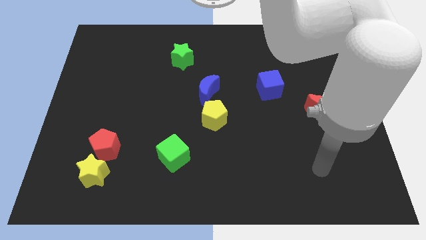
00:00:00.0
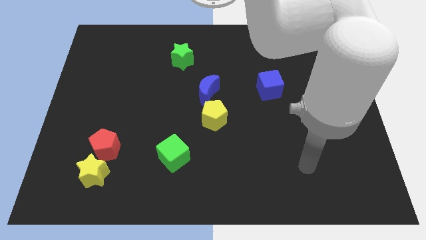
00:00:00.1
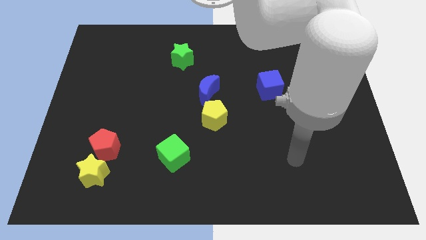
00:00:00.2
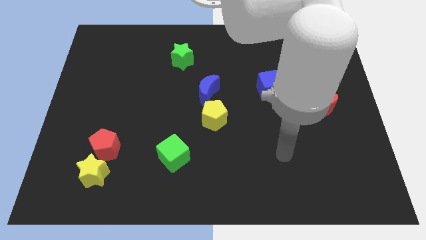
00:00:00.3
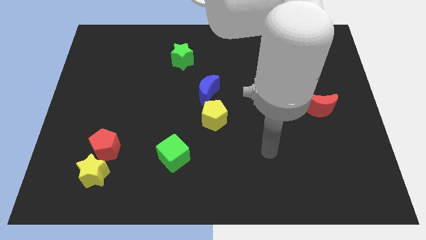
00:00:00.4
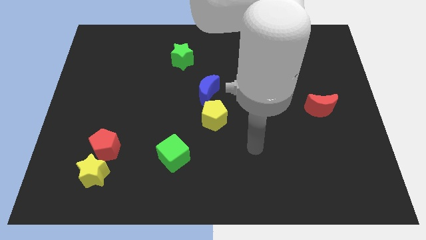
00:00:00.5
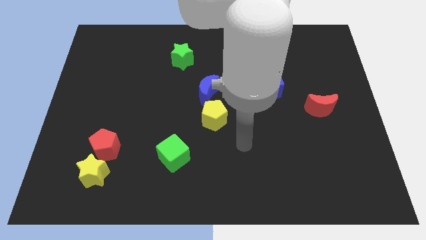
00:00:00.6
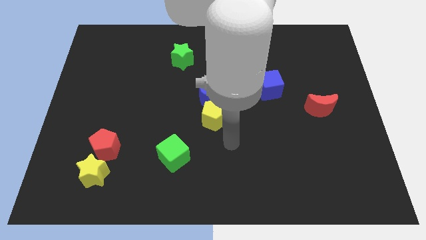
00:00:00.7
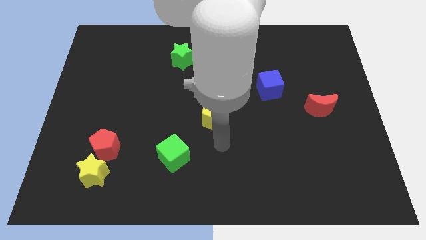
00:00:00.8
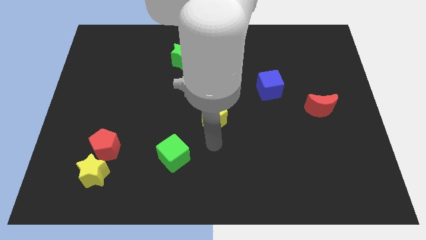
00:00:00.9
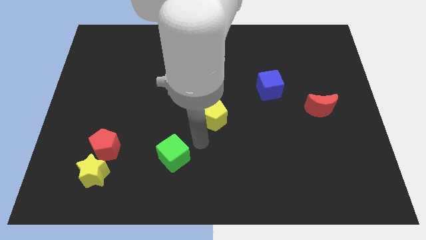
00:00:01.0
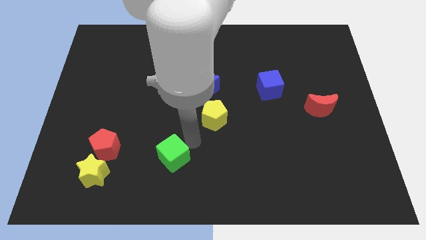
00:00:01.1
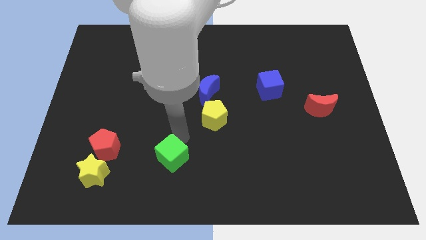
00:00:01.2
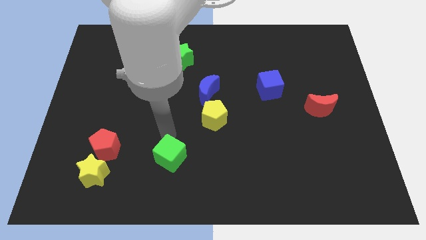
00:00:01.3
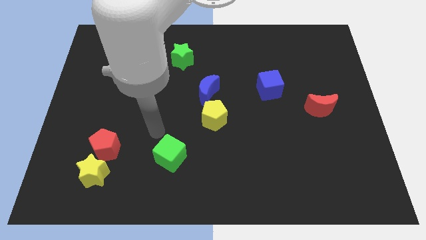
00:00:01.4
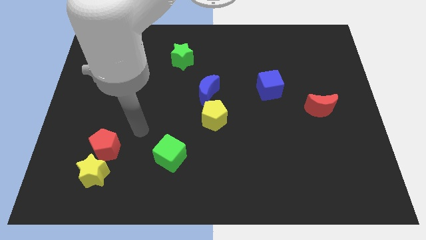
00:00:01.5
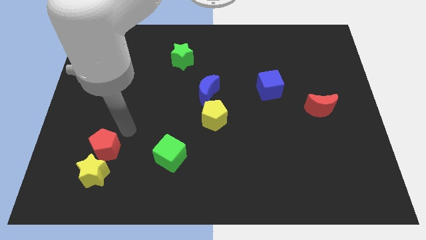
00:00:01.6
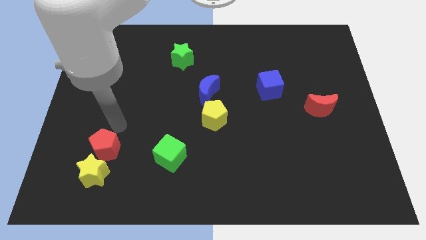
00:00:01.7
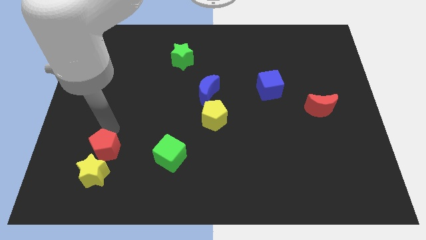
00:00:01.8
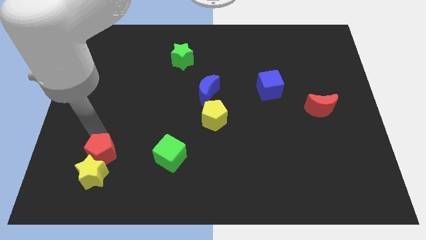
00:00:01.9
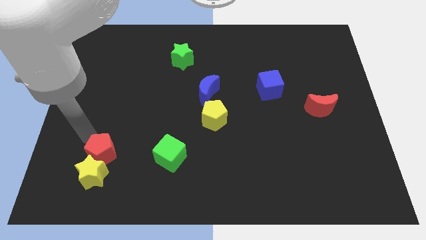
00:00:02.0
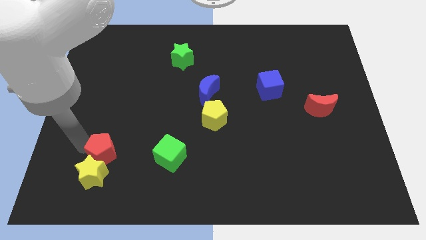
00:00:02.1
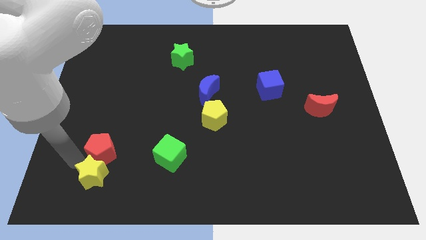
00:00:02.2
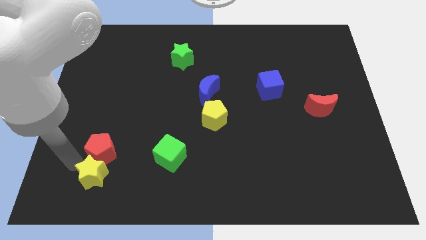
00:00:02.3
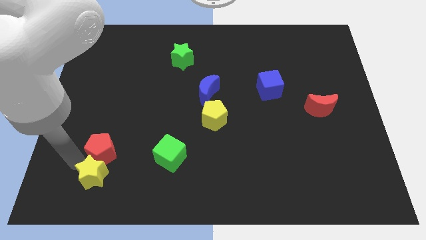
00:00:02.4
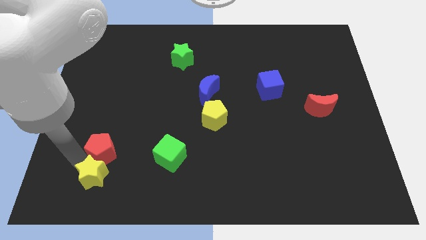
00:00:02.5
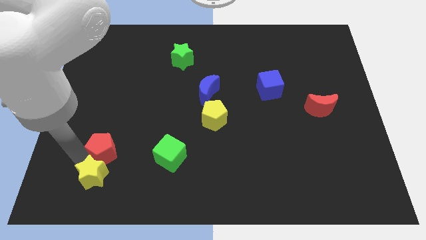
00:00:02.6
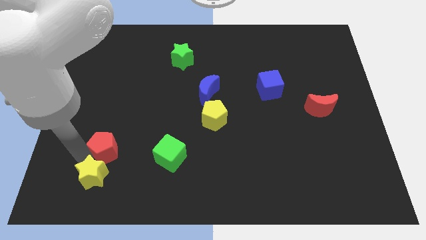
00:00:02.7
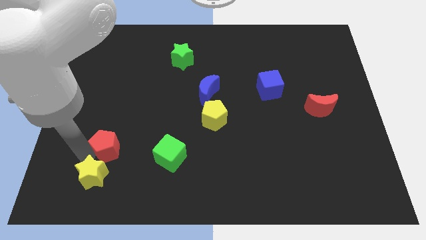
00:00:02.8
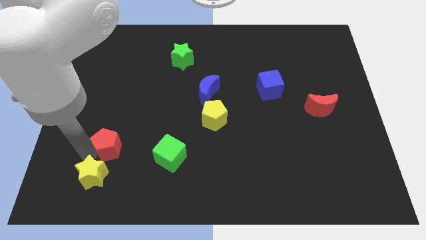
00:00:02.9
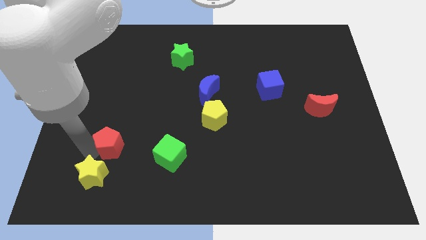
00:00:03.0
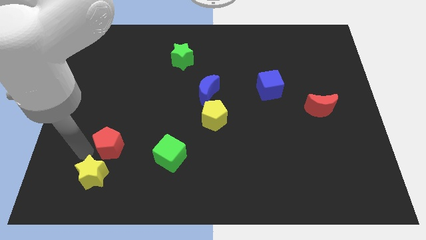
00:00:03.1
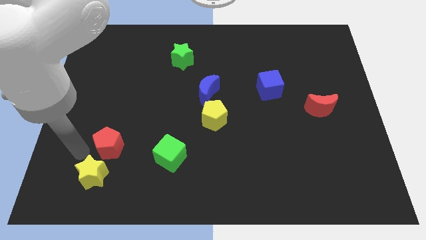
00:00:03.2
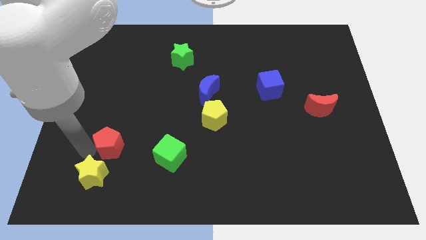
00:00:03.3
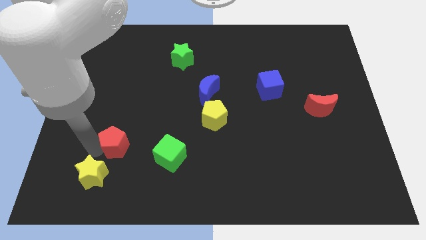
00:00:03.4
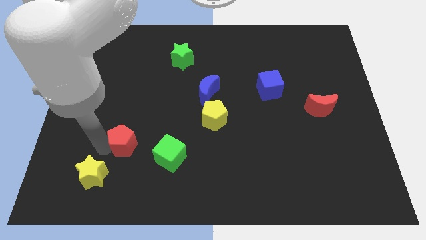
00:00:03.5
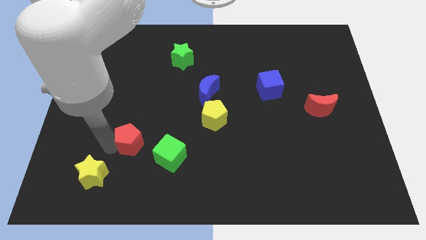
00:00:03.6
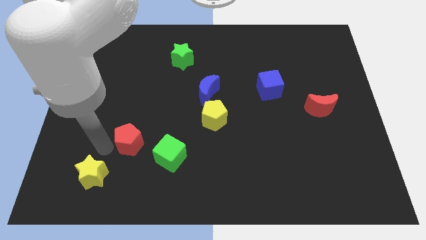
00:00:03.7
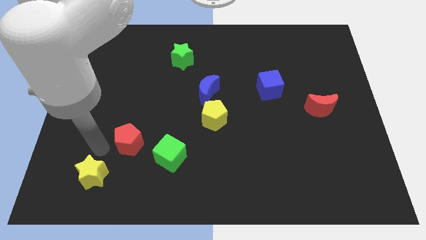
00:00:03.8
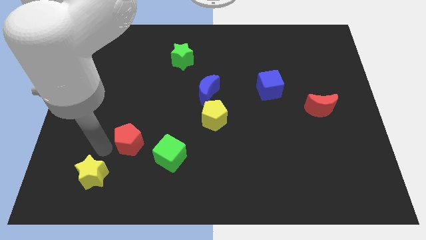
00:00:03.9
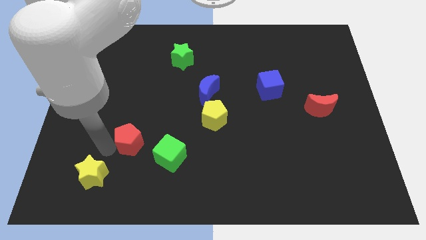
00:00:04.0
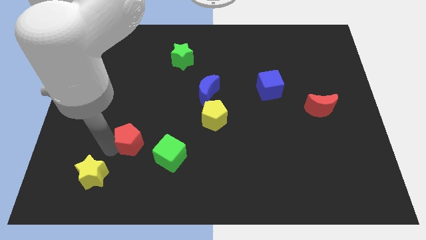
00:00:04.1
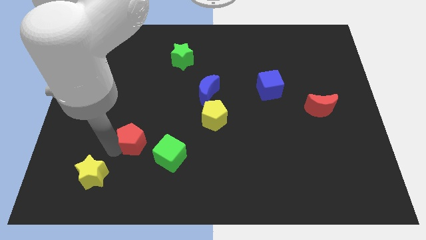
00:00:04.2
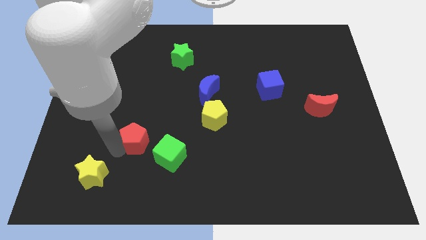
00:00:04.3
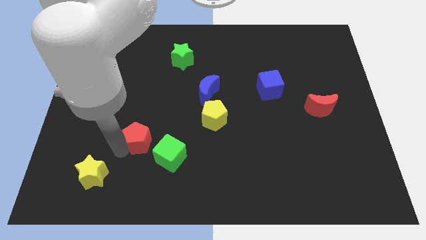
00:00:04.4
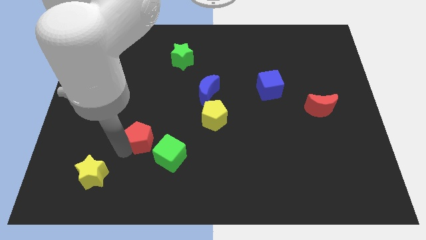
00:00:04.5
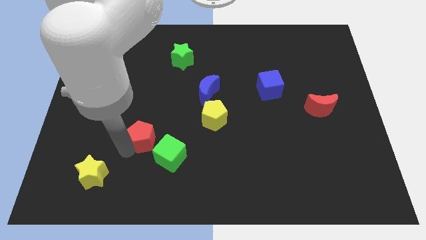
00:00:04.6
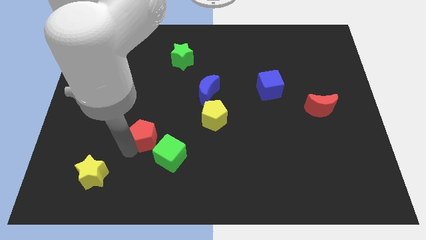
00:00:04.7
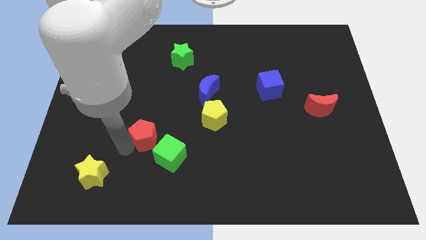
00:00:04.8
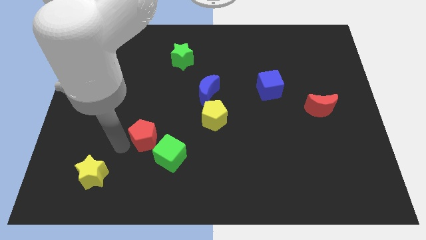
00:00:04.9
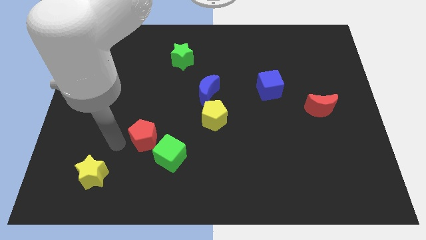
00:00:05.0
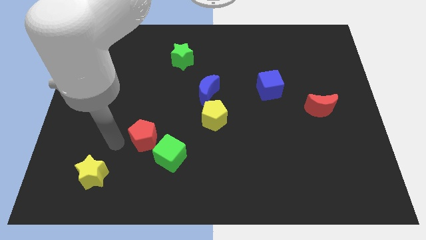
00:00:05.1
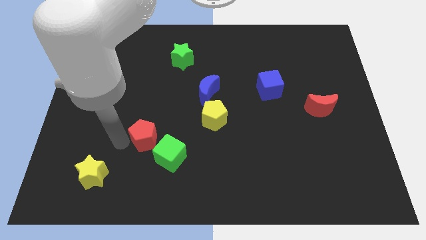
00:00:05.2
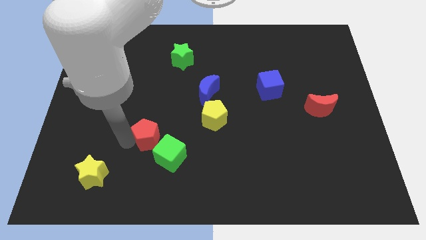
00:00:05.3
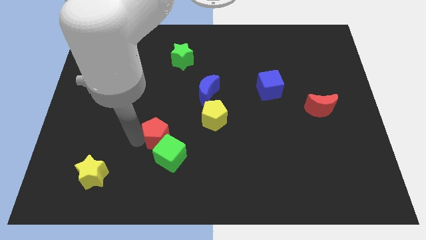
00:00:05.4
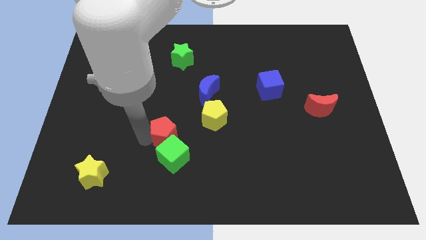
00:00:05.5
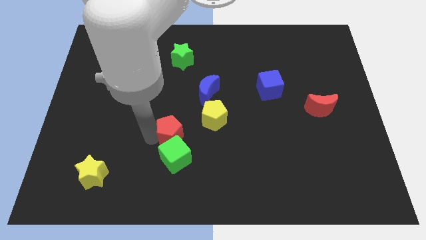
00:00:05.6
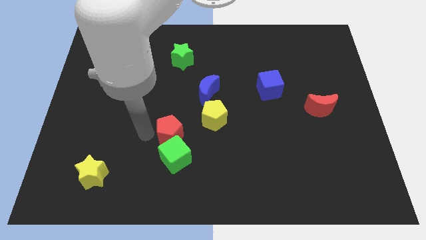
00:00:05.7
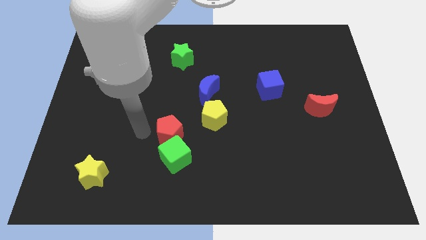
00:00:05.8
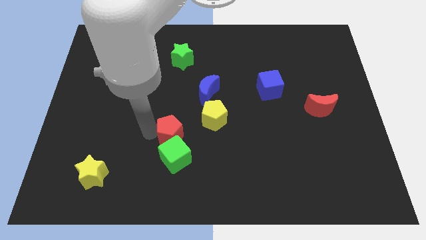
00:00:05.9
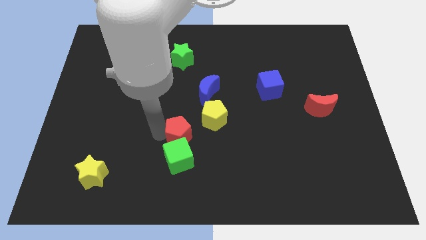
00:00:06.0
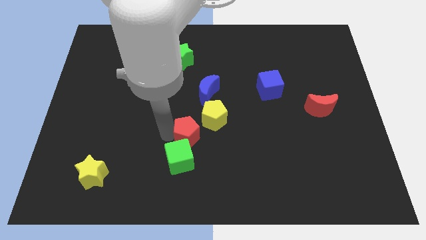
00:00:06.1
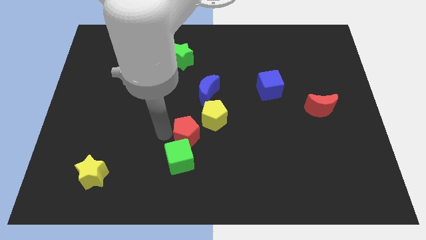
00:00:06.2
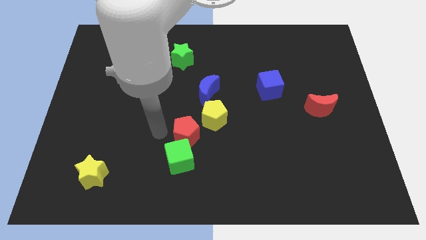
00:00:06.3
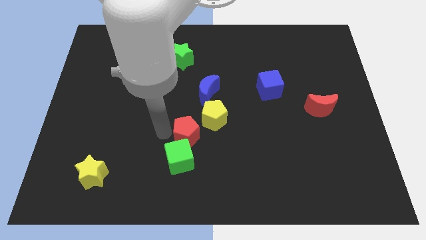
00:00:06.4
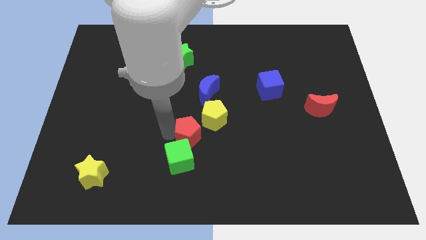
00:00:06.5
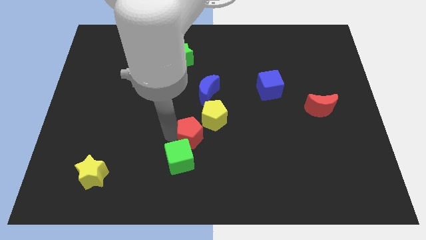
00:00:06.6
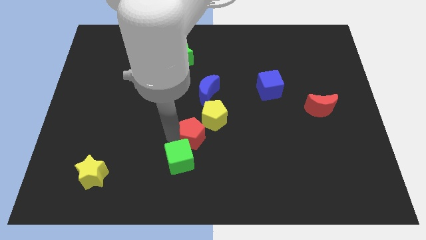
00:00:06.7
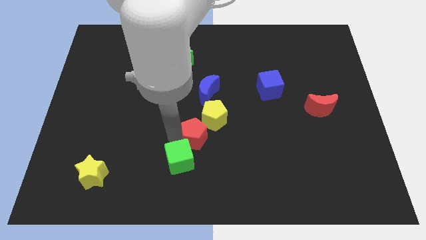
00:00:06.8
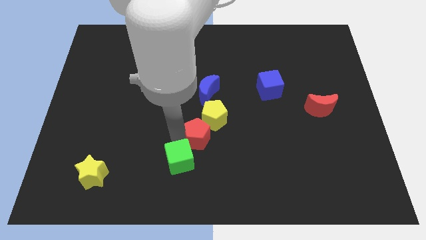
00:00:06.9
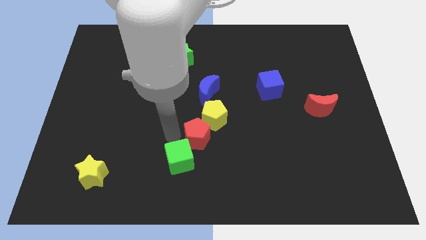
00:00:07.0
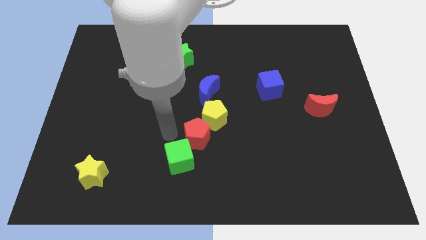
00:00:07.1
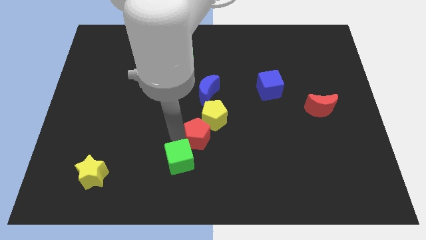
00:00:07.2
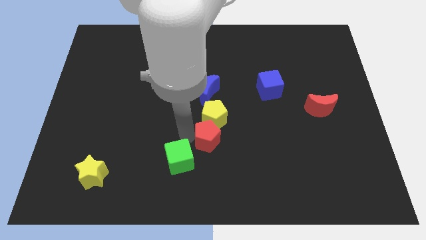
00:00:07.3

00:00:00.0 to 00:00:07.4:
slide the red pentagon right

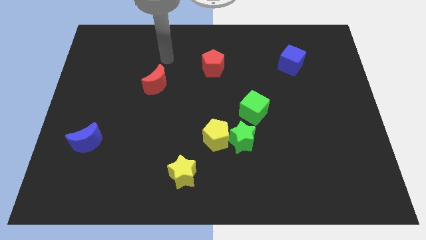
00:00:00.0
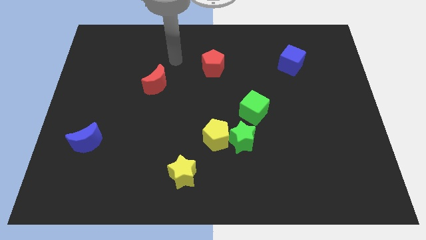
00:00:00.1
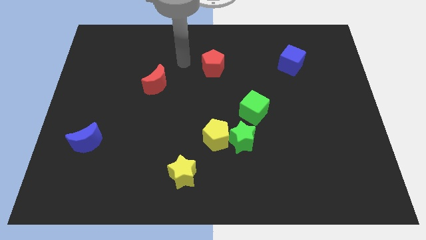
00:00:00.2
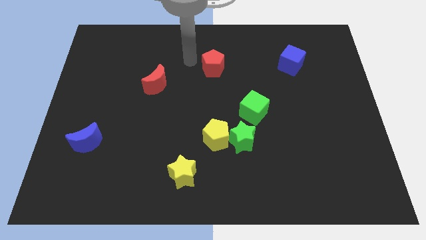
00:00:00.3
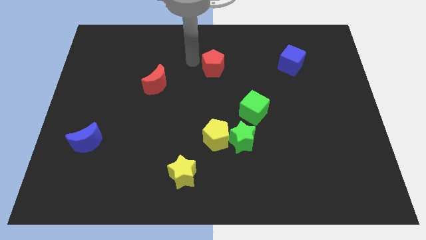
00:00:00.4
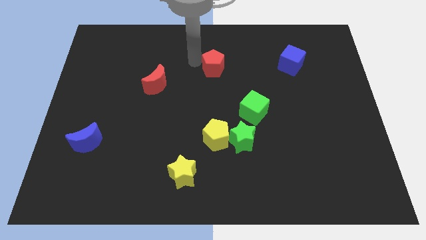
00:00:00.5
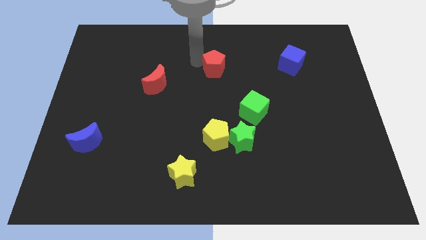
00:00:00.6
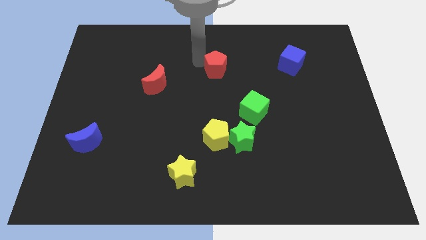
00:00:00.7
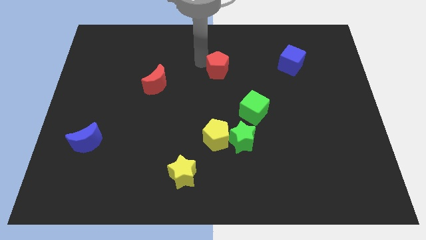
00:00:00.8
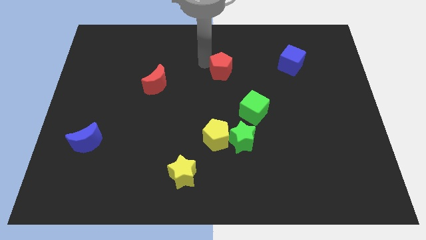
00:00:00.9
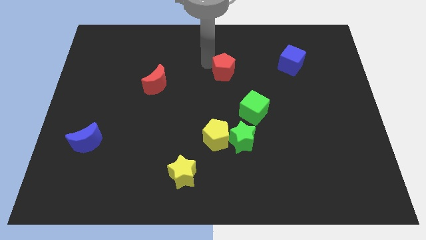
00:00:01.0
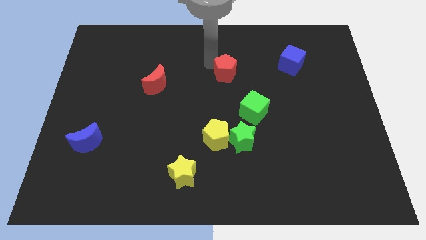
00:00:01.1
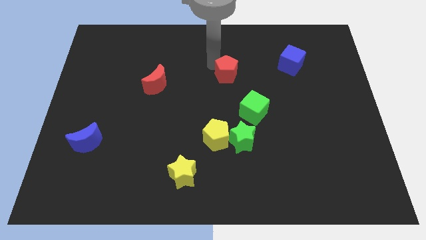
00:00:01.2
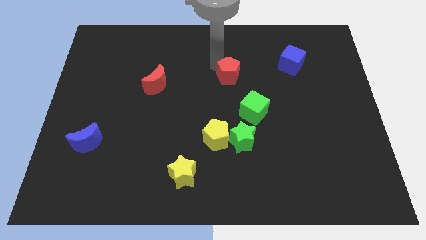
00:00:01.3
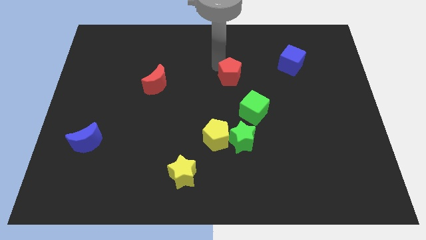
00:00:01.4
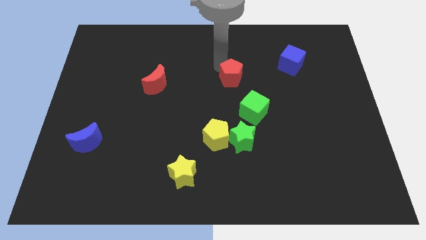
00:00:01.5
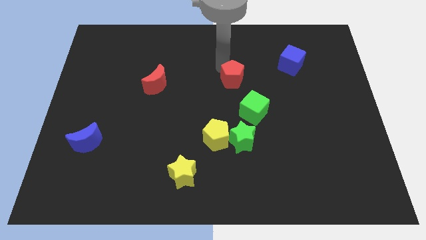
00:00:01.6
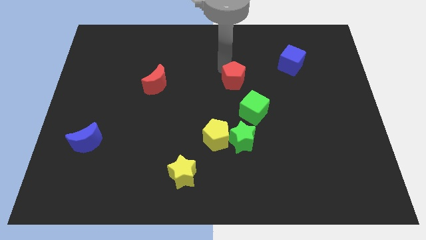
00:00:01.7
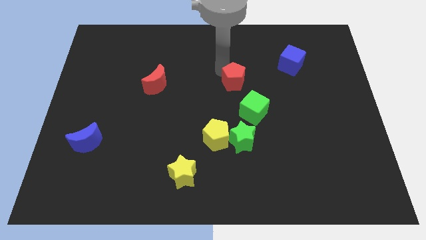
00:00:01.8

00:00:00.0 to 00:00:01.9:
slide the red pentagon diagonally downwards and right a little bit
